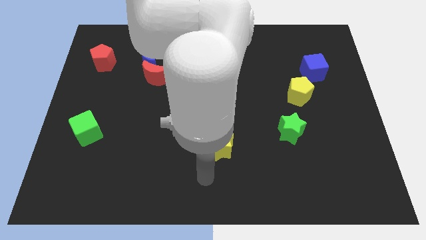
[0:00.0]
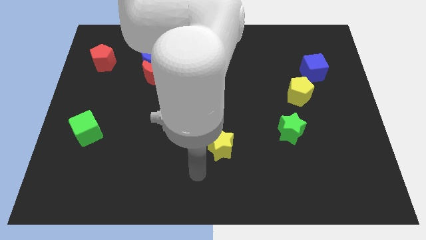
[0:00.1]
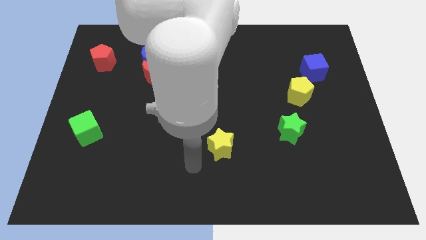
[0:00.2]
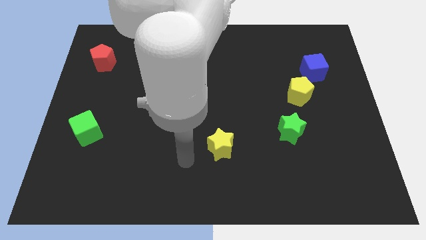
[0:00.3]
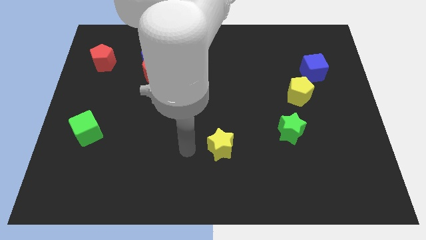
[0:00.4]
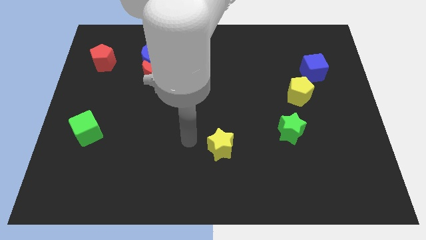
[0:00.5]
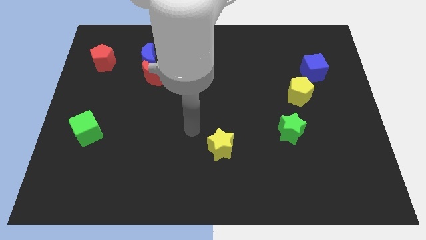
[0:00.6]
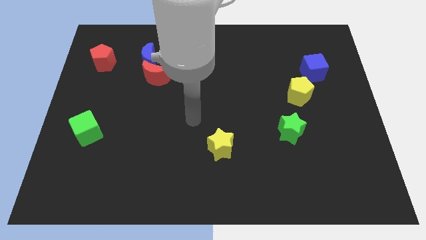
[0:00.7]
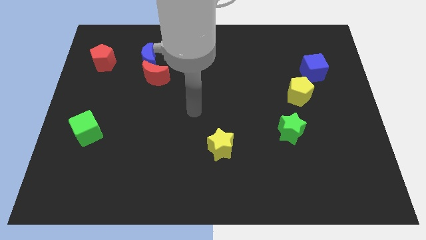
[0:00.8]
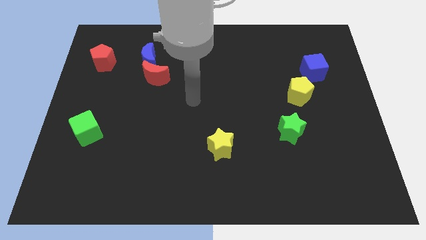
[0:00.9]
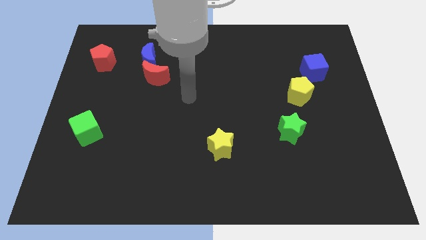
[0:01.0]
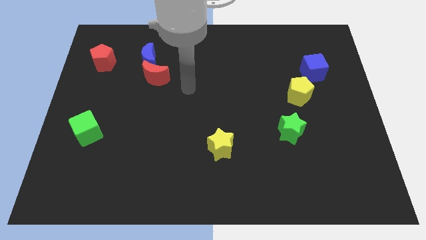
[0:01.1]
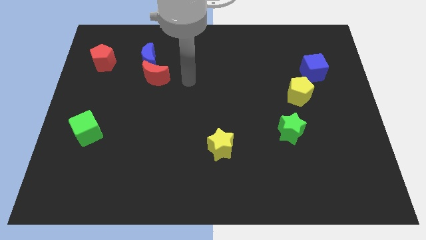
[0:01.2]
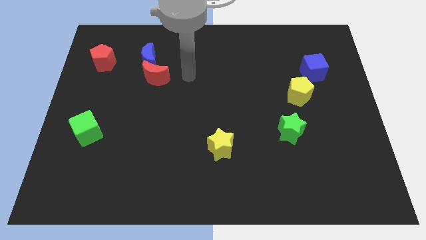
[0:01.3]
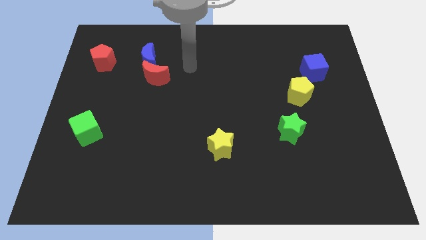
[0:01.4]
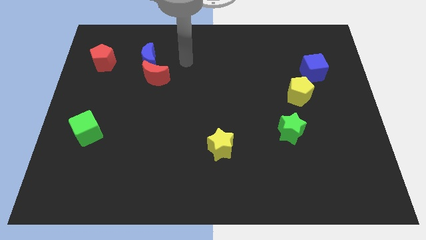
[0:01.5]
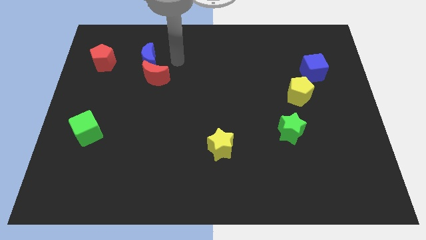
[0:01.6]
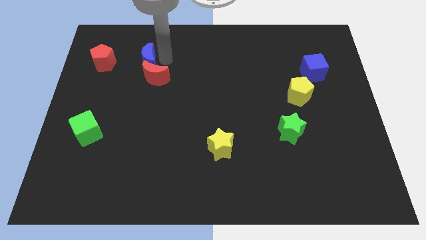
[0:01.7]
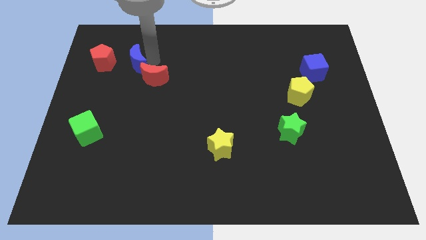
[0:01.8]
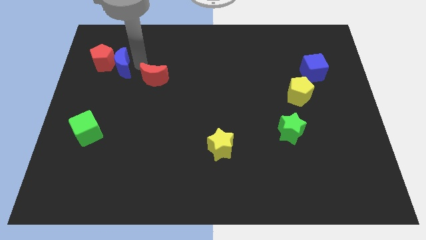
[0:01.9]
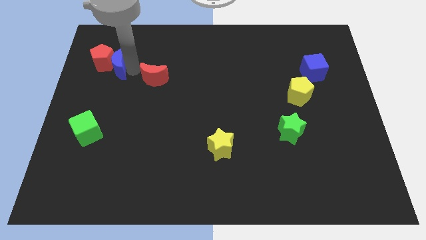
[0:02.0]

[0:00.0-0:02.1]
pull the red moon apart from the blue moon

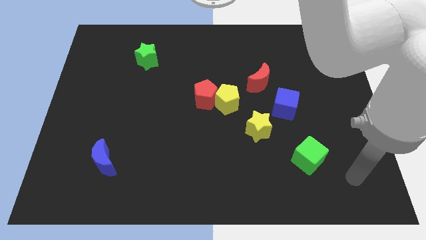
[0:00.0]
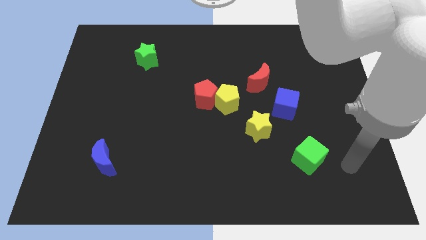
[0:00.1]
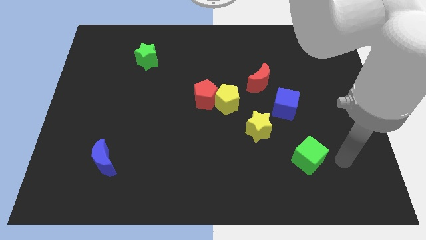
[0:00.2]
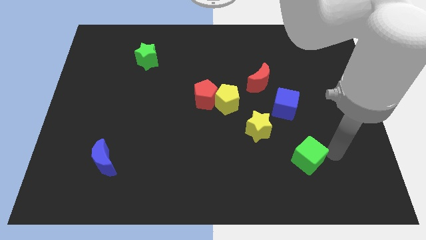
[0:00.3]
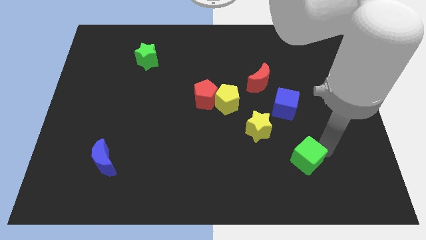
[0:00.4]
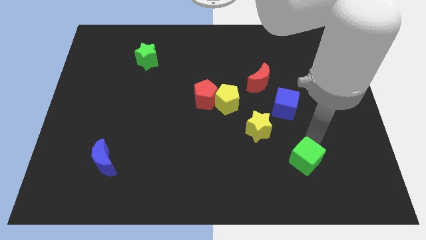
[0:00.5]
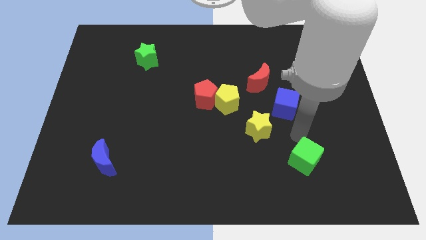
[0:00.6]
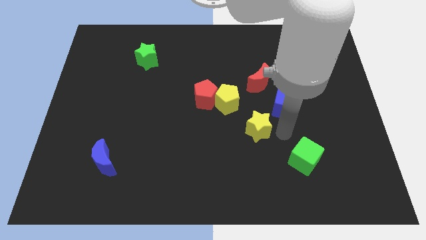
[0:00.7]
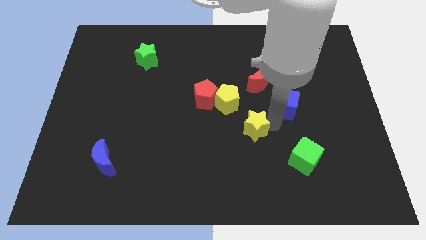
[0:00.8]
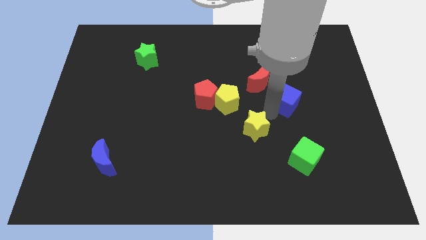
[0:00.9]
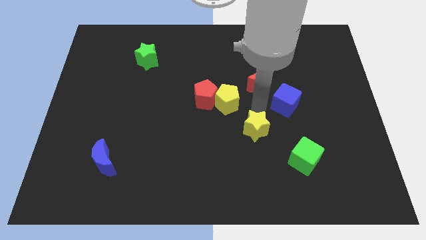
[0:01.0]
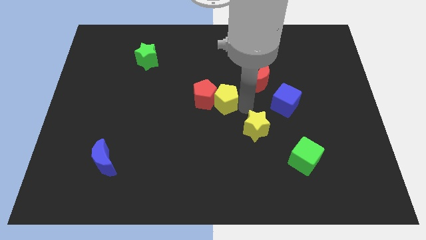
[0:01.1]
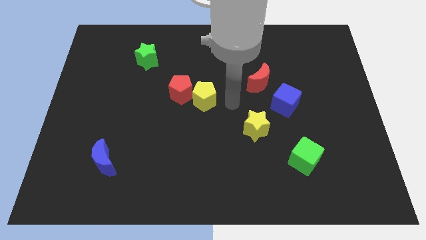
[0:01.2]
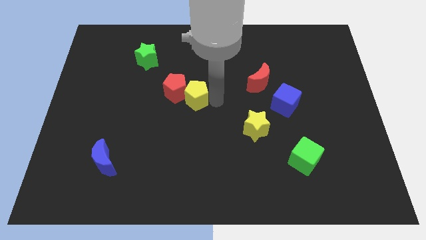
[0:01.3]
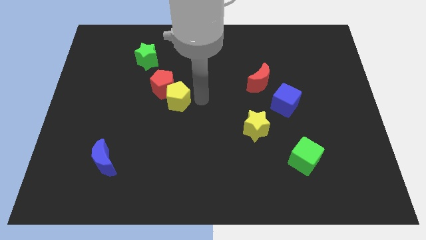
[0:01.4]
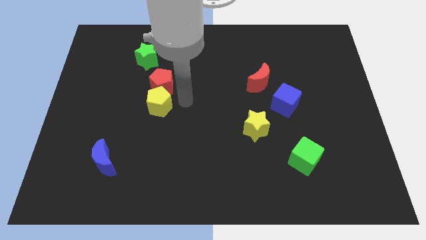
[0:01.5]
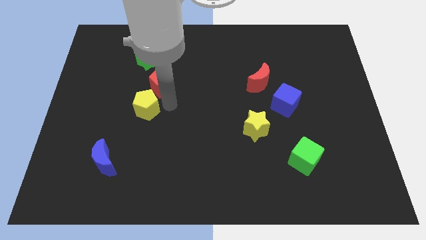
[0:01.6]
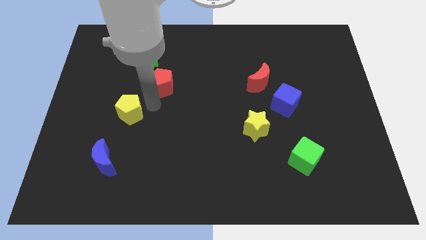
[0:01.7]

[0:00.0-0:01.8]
move the red pentagon away from the yellow pentagon

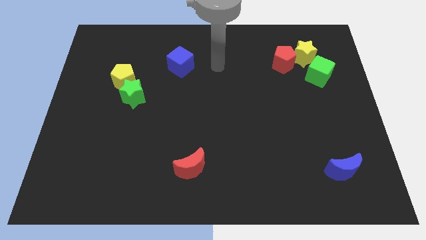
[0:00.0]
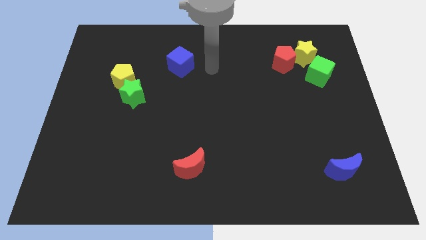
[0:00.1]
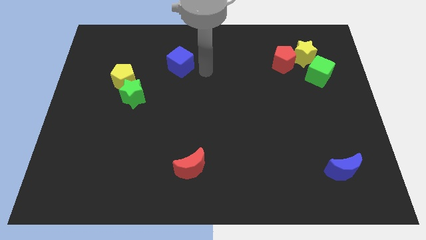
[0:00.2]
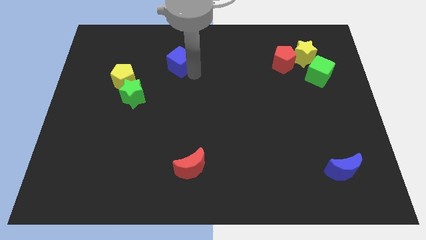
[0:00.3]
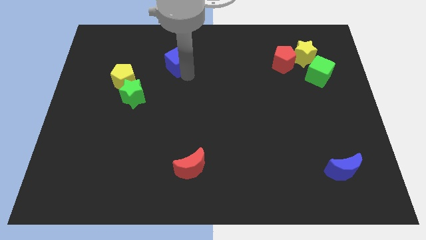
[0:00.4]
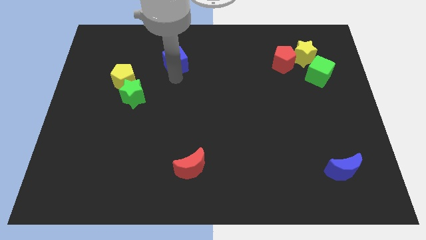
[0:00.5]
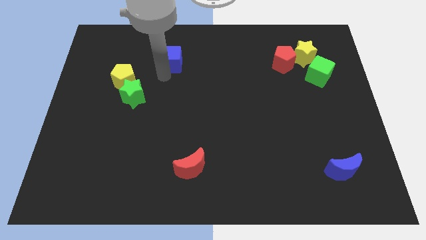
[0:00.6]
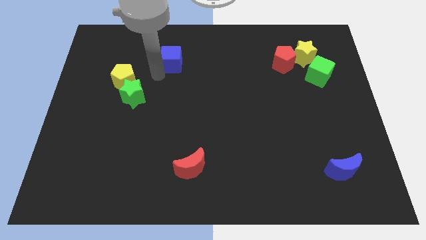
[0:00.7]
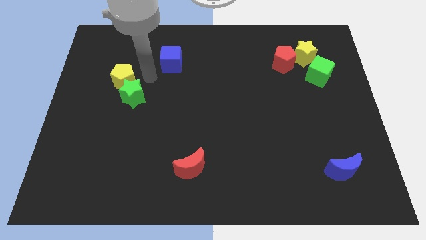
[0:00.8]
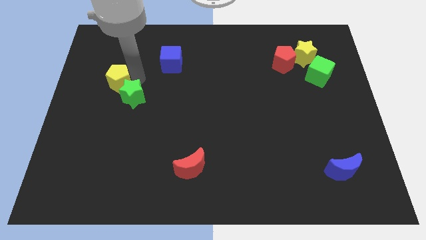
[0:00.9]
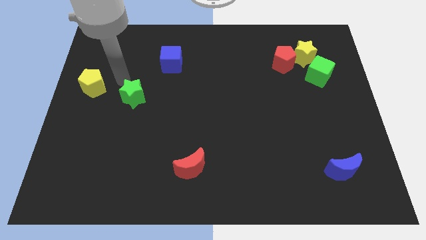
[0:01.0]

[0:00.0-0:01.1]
separate the green star from the yellow pentagon

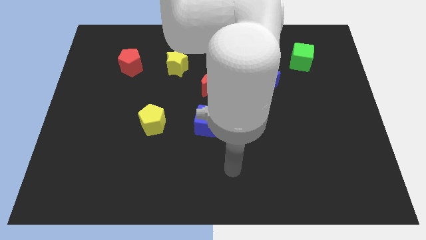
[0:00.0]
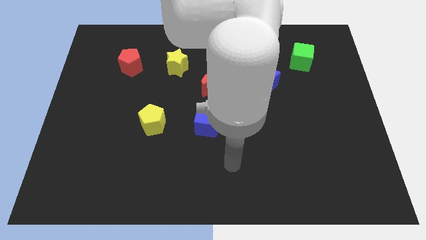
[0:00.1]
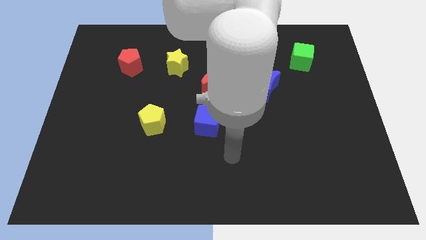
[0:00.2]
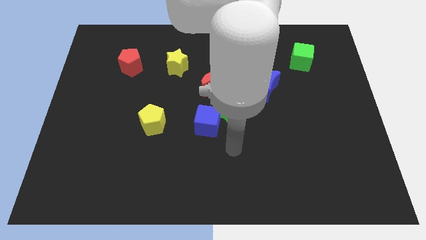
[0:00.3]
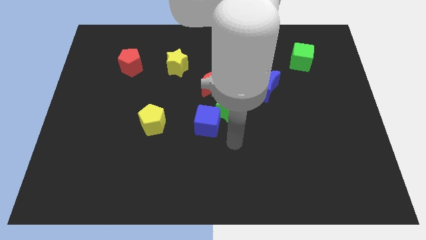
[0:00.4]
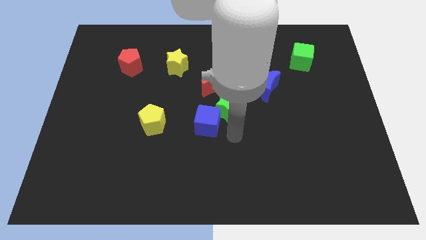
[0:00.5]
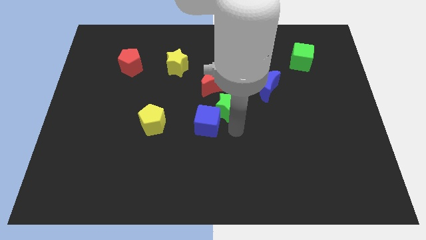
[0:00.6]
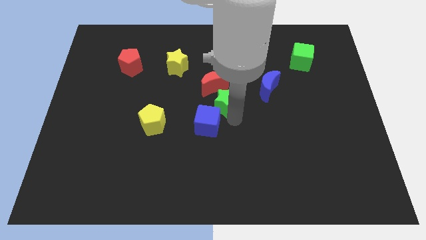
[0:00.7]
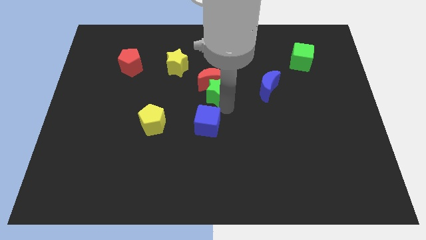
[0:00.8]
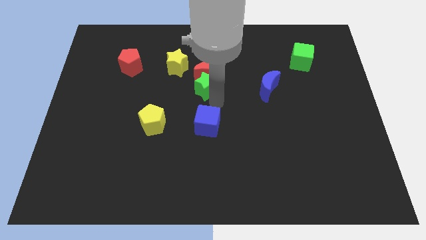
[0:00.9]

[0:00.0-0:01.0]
pull the blue cube apart from the green star

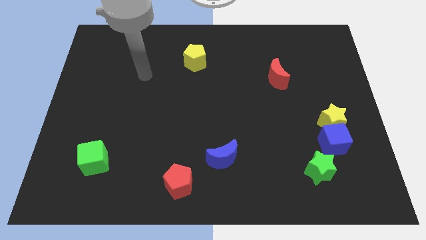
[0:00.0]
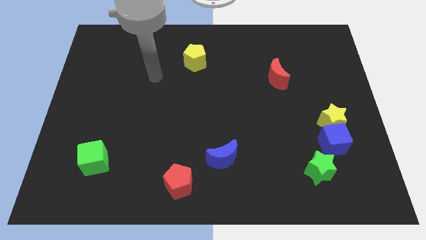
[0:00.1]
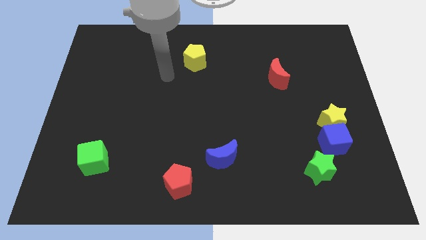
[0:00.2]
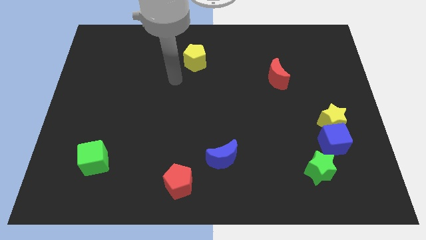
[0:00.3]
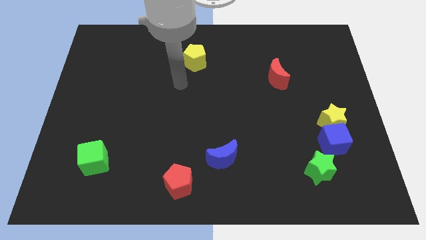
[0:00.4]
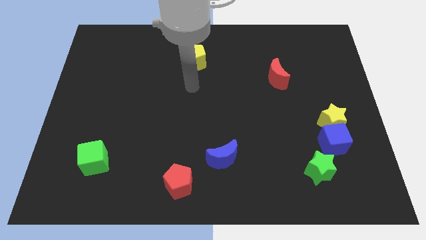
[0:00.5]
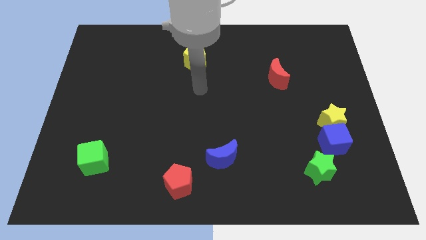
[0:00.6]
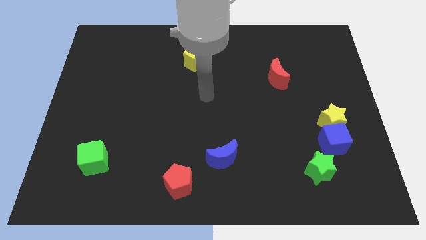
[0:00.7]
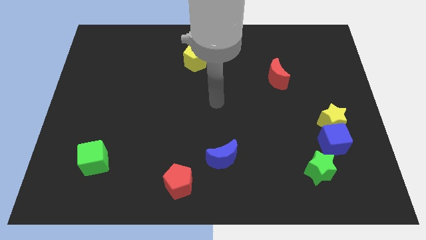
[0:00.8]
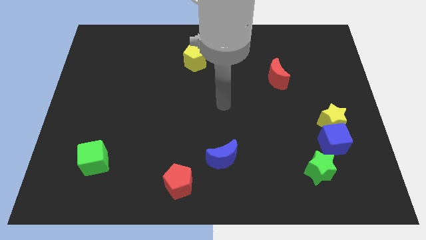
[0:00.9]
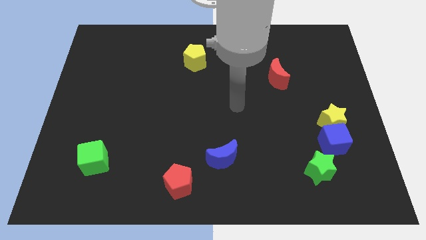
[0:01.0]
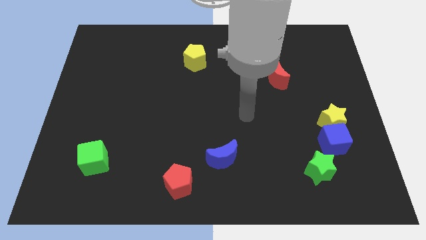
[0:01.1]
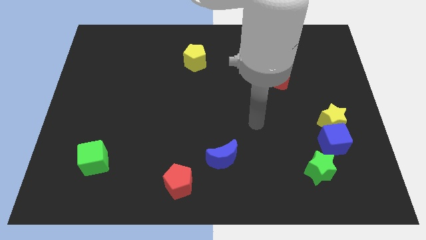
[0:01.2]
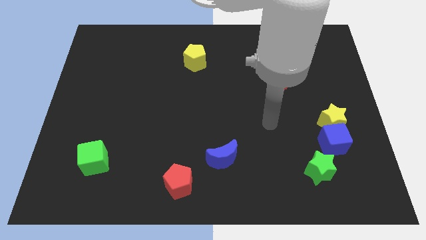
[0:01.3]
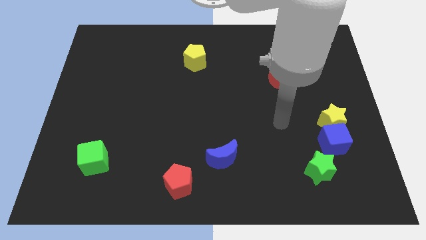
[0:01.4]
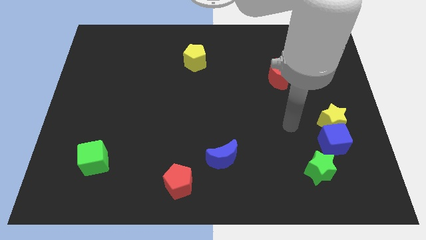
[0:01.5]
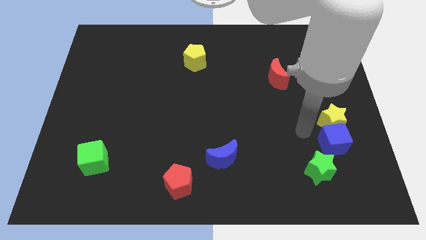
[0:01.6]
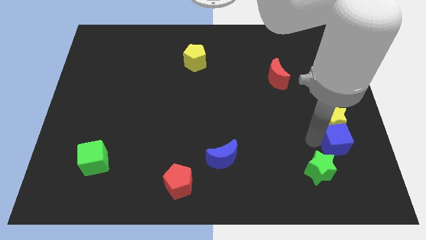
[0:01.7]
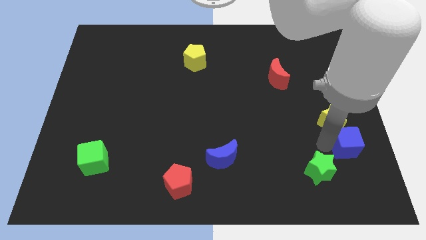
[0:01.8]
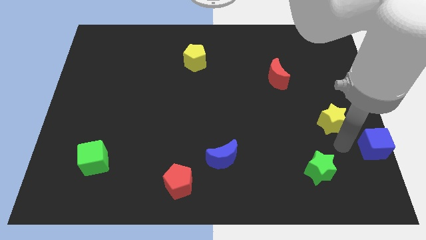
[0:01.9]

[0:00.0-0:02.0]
separate the yellow star from the blue cube

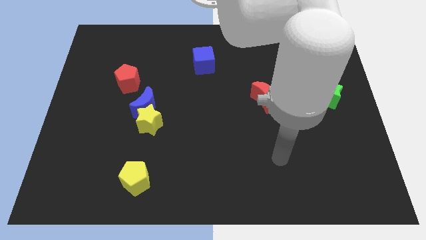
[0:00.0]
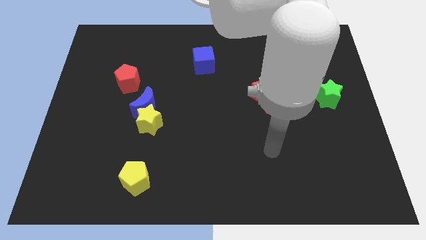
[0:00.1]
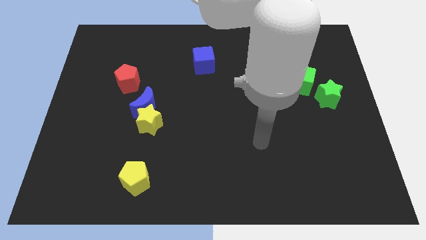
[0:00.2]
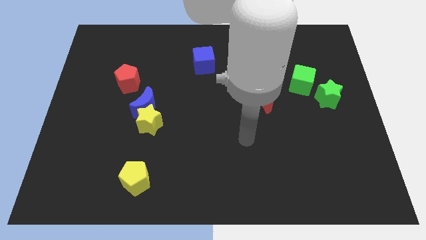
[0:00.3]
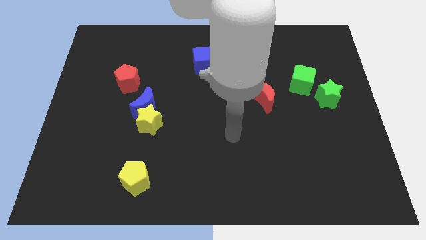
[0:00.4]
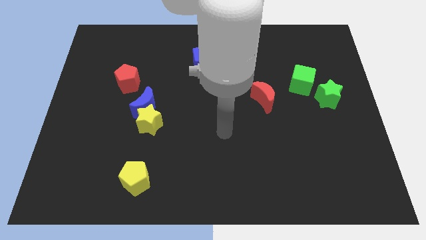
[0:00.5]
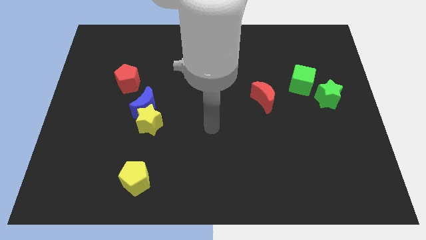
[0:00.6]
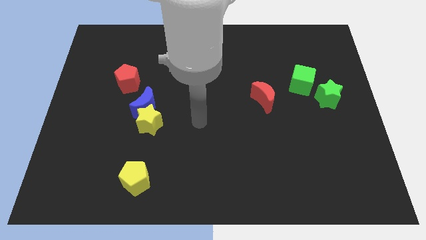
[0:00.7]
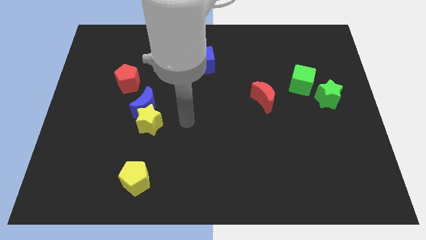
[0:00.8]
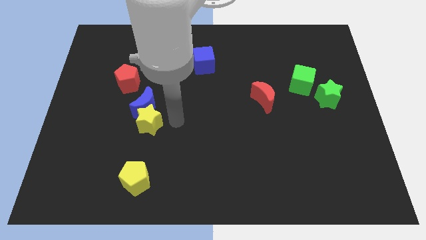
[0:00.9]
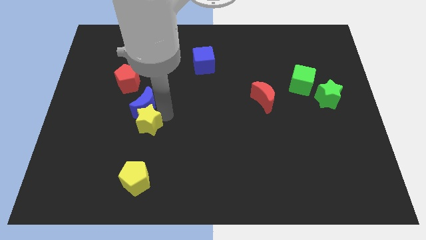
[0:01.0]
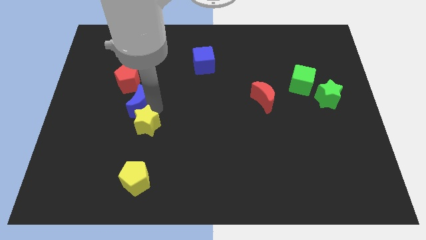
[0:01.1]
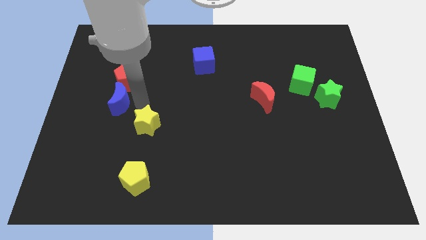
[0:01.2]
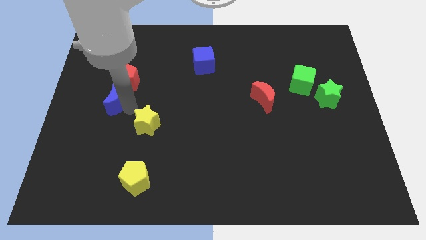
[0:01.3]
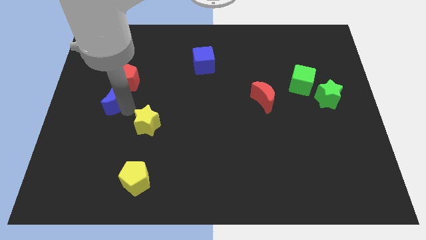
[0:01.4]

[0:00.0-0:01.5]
move the yellow star away from the blue moon
